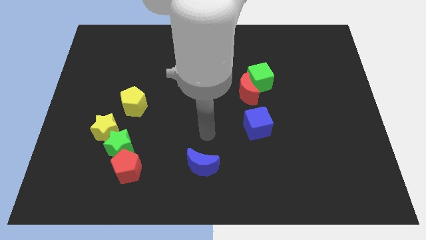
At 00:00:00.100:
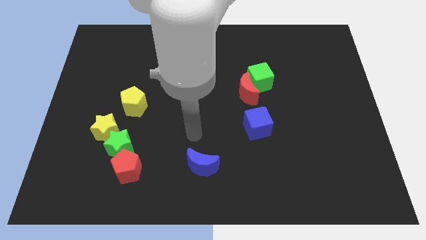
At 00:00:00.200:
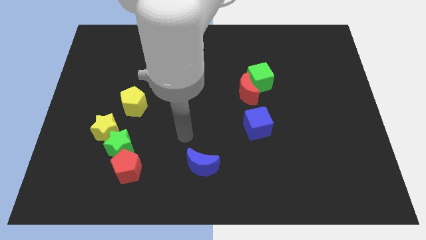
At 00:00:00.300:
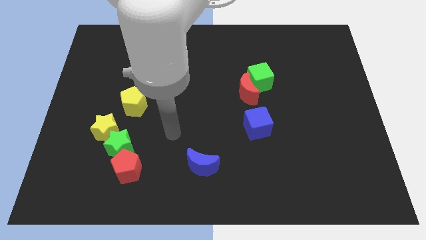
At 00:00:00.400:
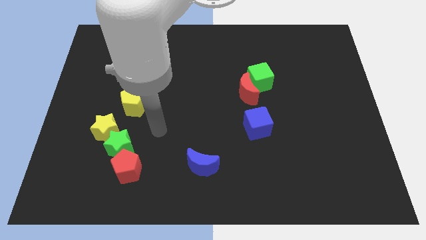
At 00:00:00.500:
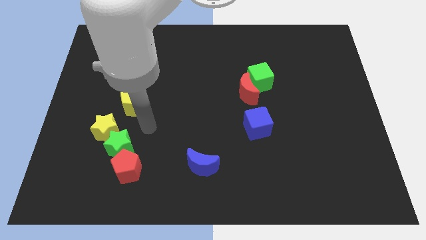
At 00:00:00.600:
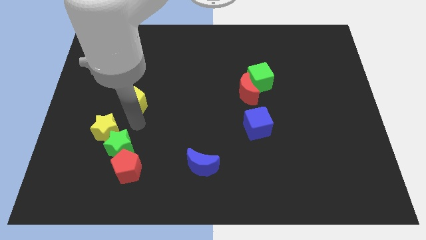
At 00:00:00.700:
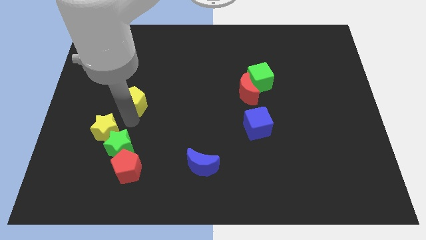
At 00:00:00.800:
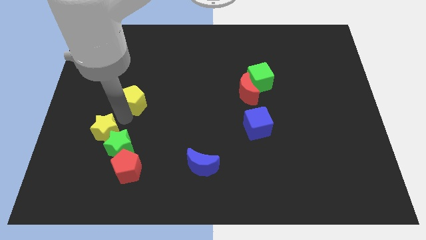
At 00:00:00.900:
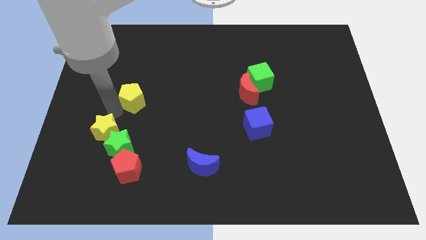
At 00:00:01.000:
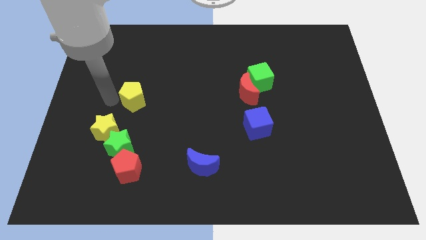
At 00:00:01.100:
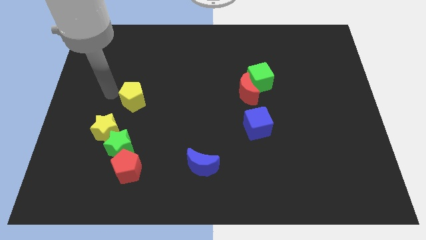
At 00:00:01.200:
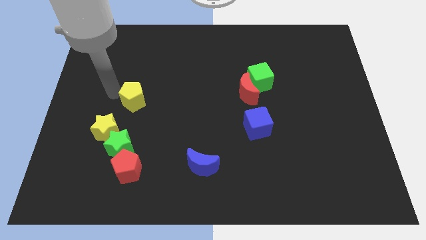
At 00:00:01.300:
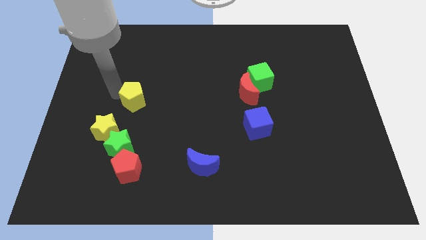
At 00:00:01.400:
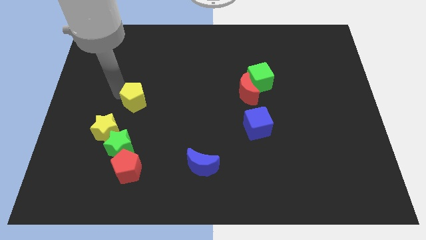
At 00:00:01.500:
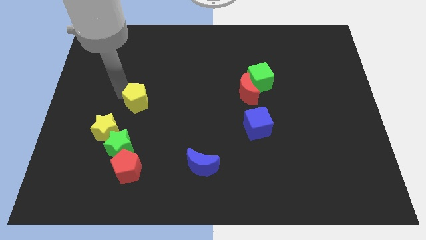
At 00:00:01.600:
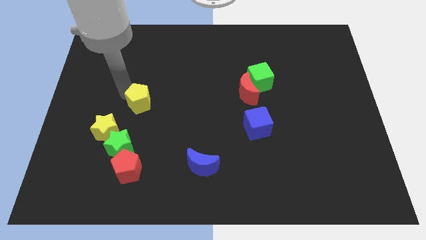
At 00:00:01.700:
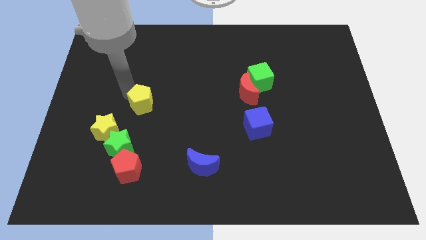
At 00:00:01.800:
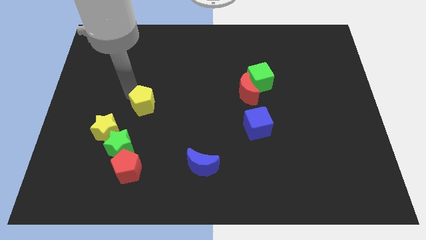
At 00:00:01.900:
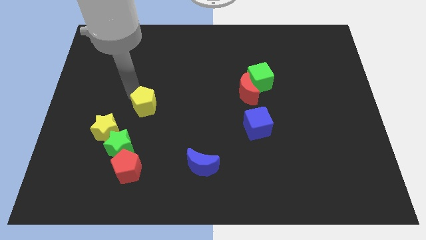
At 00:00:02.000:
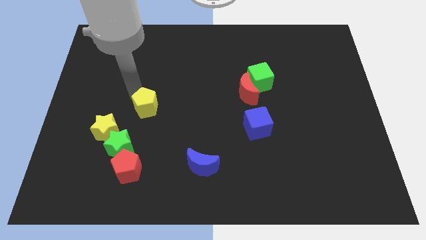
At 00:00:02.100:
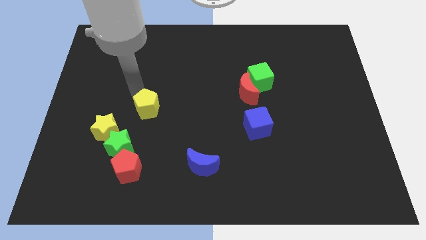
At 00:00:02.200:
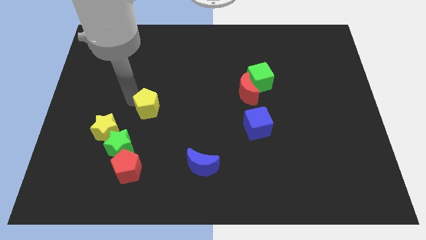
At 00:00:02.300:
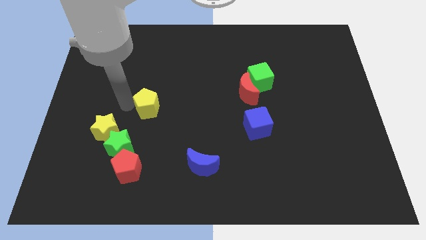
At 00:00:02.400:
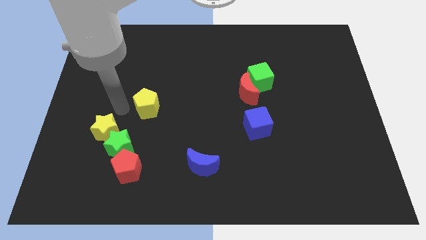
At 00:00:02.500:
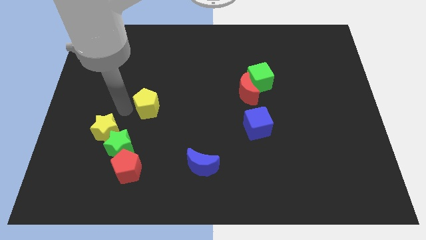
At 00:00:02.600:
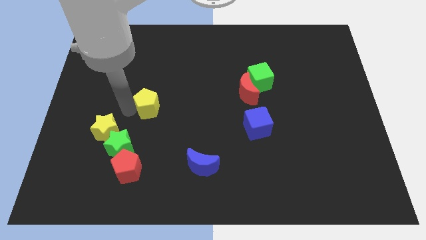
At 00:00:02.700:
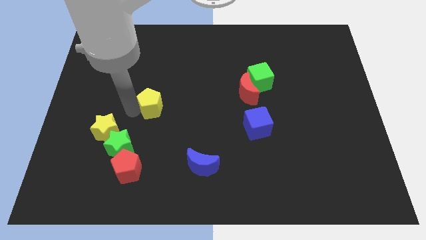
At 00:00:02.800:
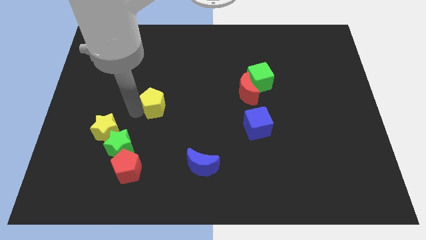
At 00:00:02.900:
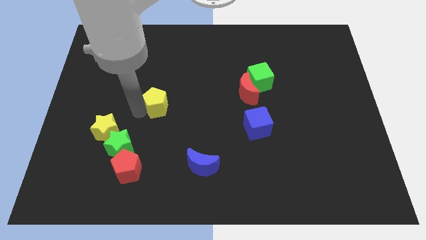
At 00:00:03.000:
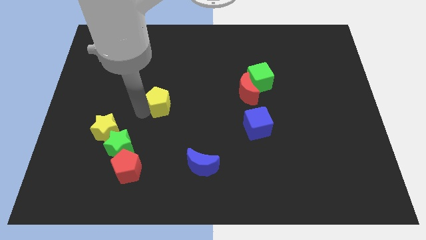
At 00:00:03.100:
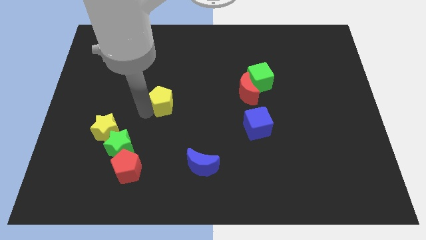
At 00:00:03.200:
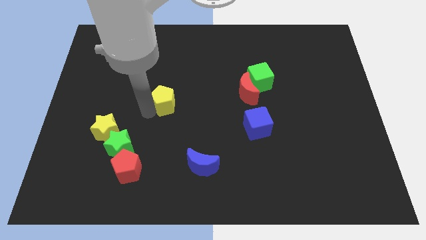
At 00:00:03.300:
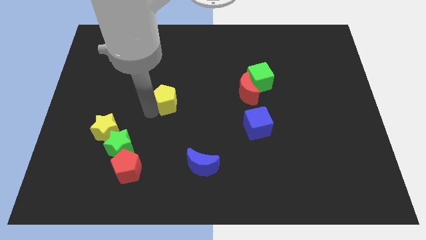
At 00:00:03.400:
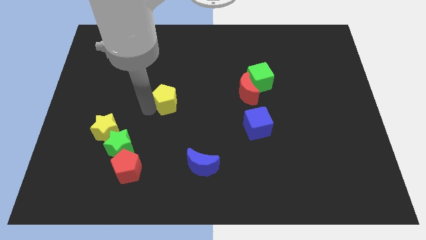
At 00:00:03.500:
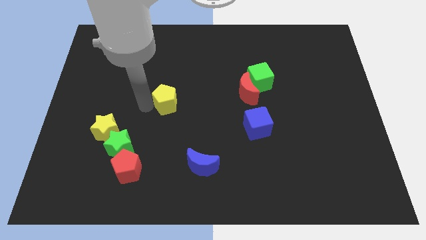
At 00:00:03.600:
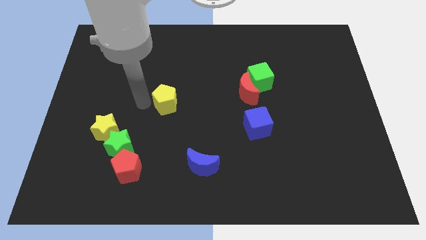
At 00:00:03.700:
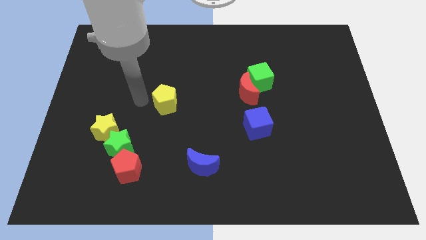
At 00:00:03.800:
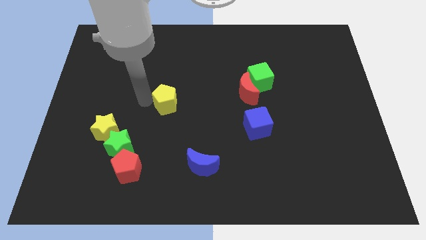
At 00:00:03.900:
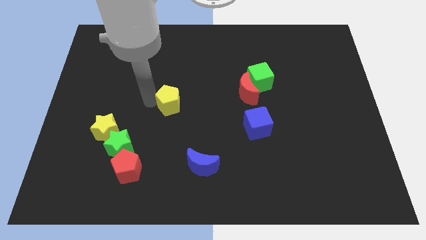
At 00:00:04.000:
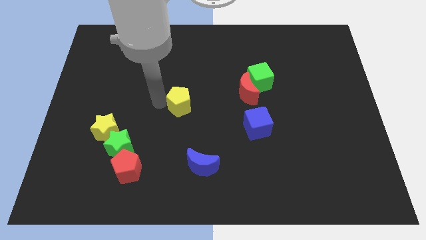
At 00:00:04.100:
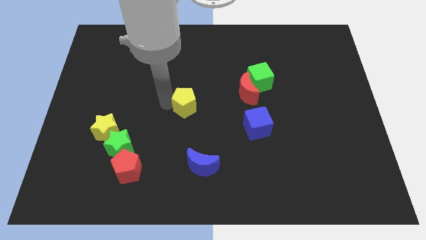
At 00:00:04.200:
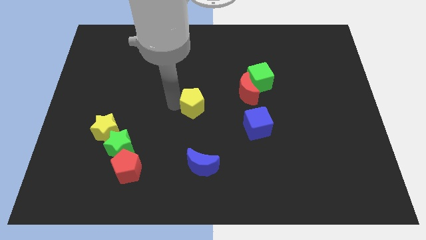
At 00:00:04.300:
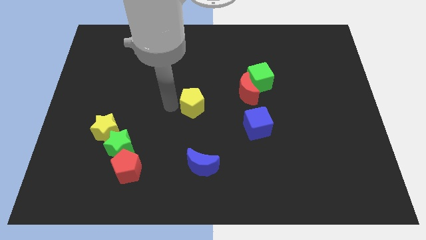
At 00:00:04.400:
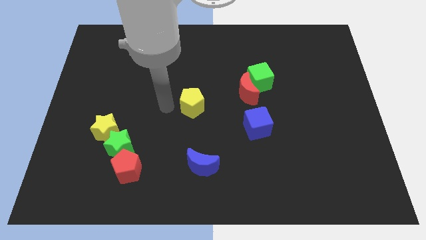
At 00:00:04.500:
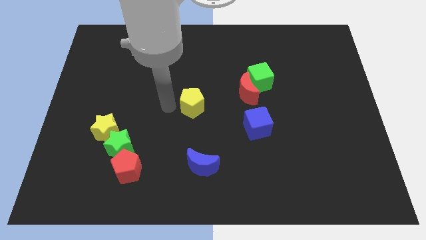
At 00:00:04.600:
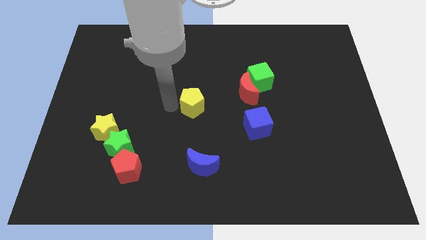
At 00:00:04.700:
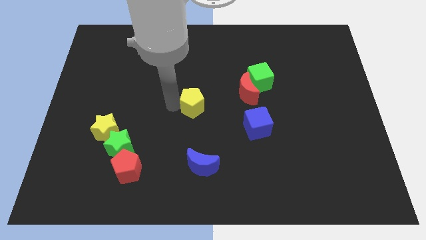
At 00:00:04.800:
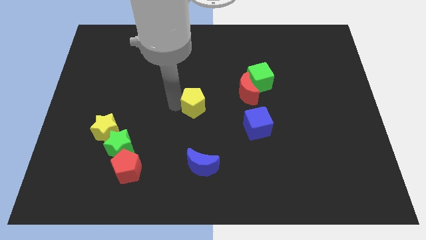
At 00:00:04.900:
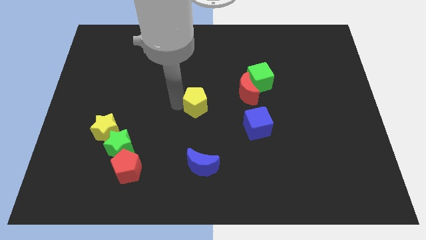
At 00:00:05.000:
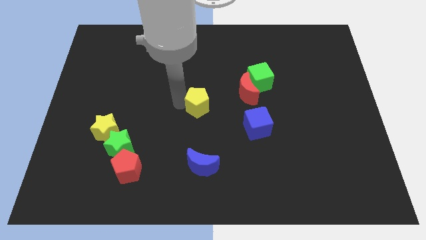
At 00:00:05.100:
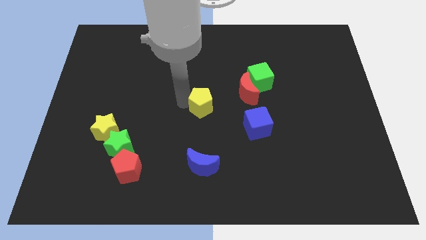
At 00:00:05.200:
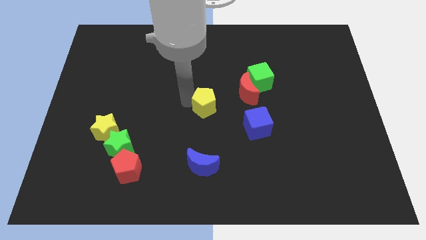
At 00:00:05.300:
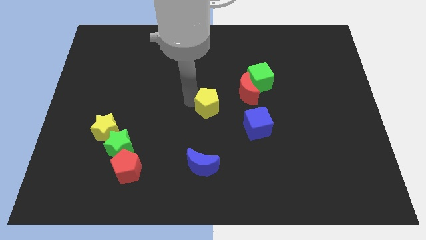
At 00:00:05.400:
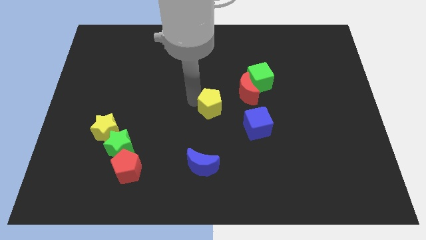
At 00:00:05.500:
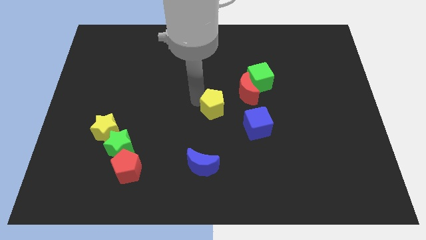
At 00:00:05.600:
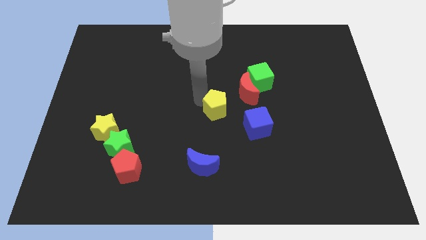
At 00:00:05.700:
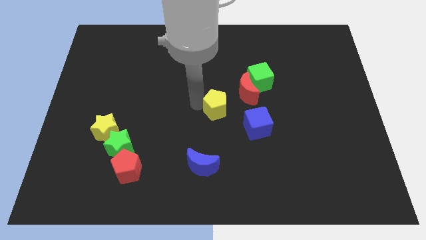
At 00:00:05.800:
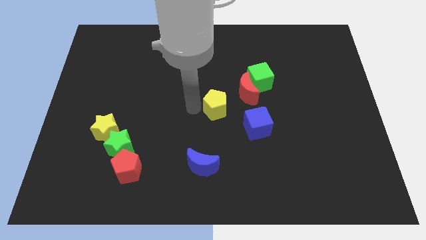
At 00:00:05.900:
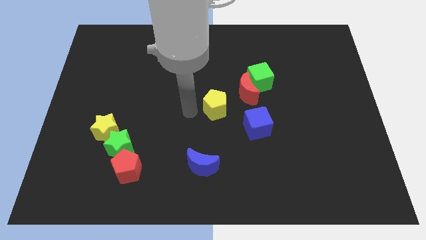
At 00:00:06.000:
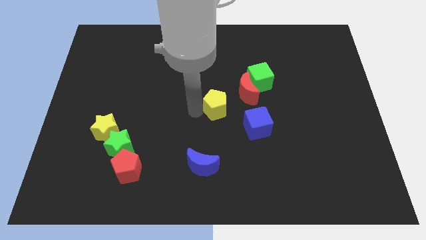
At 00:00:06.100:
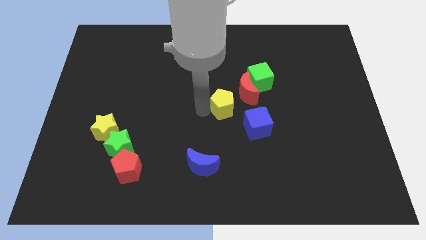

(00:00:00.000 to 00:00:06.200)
push the yellow pentagon to the right

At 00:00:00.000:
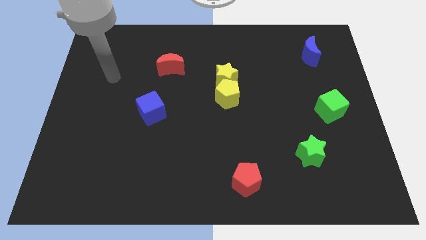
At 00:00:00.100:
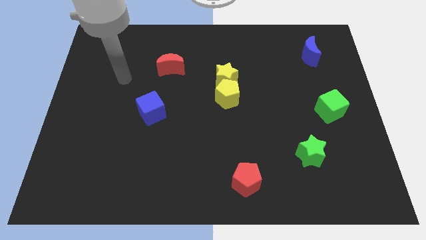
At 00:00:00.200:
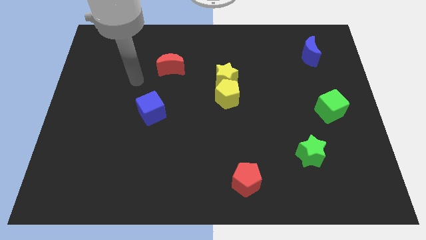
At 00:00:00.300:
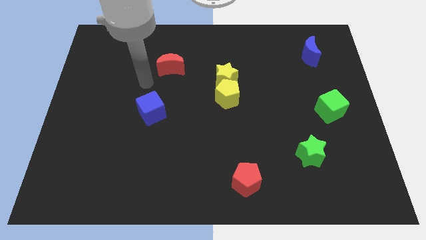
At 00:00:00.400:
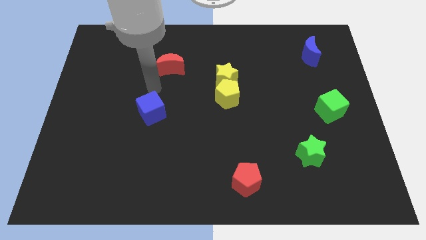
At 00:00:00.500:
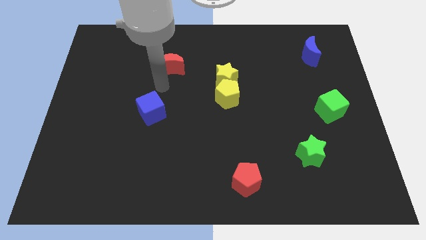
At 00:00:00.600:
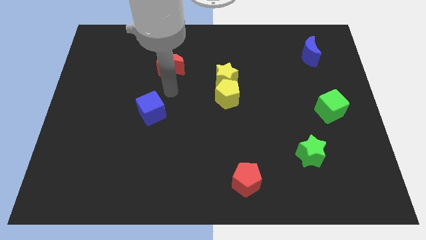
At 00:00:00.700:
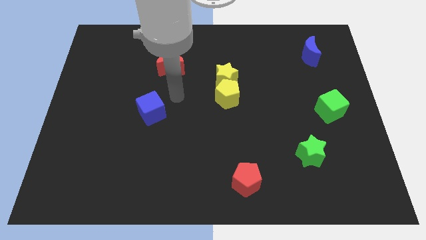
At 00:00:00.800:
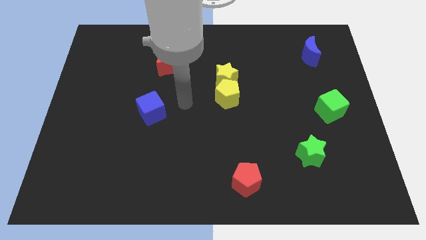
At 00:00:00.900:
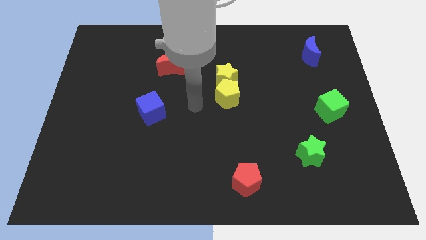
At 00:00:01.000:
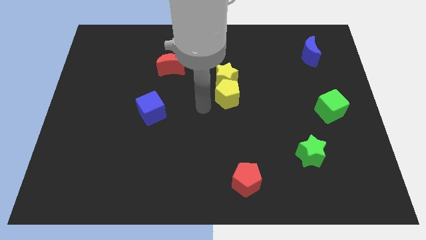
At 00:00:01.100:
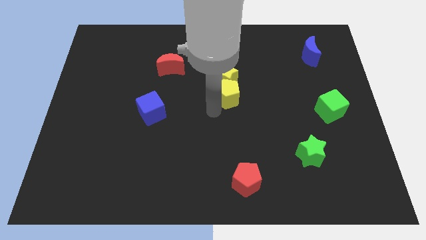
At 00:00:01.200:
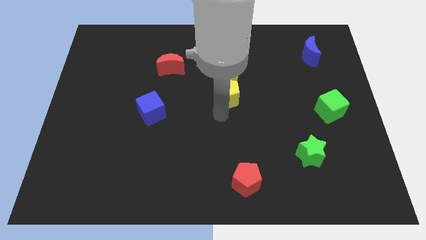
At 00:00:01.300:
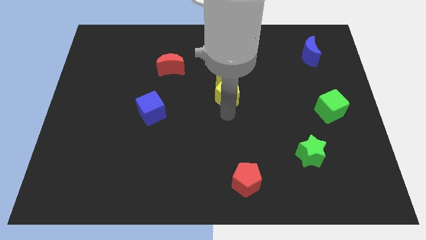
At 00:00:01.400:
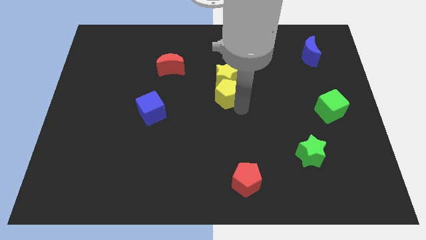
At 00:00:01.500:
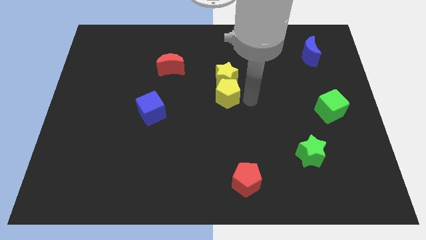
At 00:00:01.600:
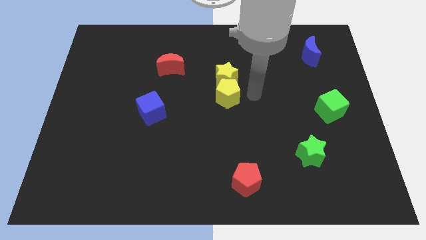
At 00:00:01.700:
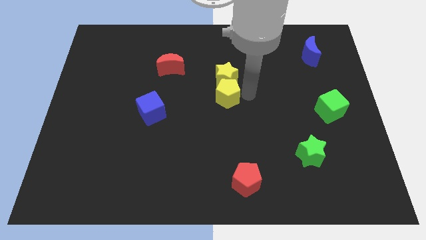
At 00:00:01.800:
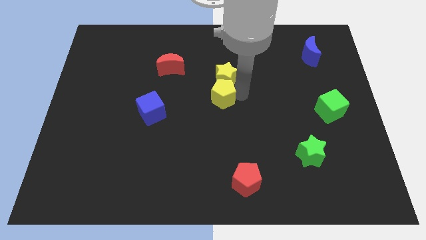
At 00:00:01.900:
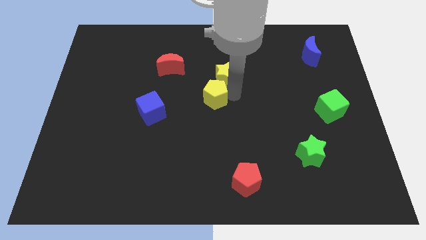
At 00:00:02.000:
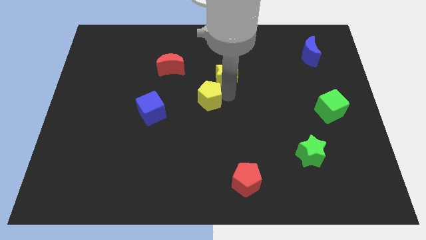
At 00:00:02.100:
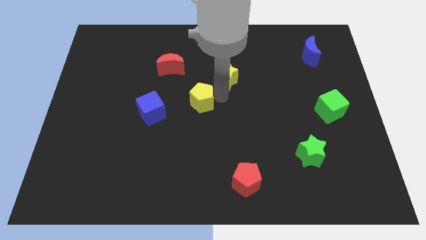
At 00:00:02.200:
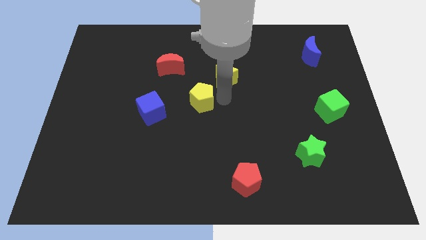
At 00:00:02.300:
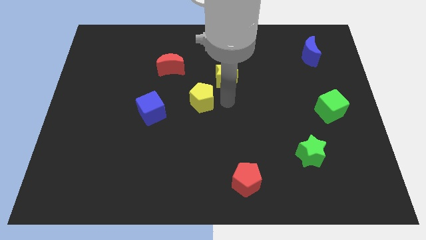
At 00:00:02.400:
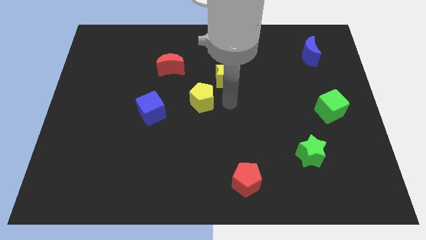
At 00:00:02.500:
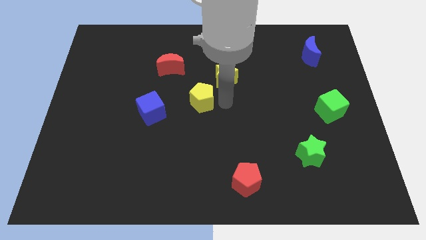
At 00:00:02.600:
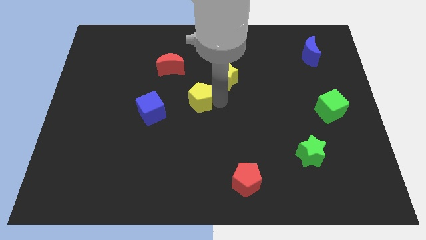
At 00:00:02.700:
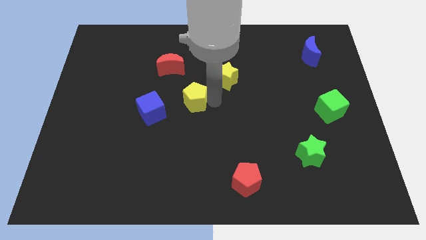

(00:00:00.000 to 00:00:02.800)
slightly slide the yellow pentagon to the left
